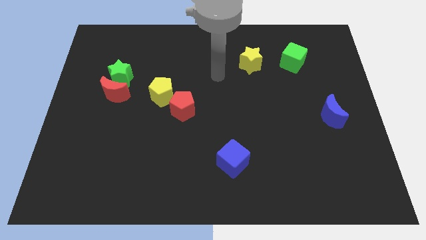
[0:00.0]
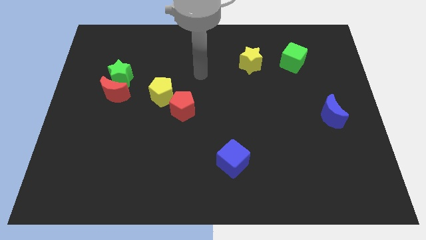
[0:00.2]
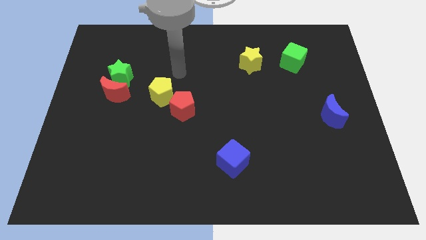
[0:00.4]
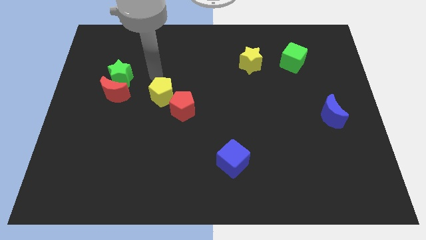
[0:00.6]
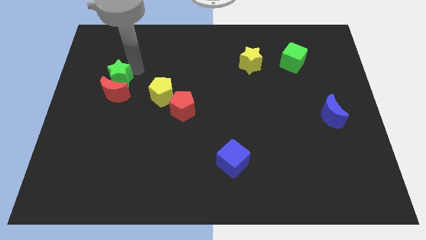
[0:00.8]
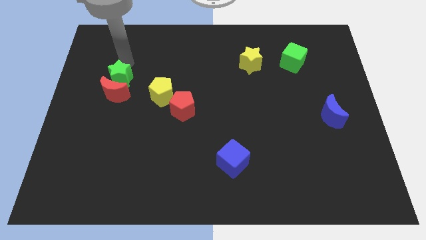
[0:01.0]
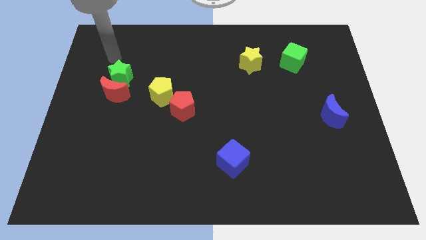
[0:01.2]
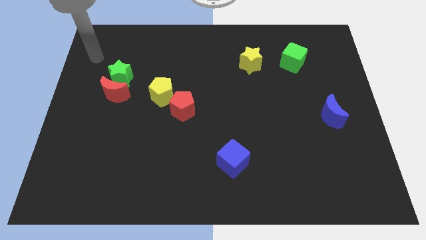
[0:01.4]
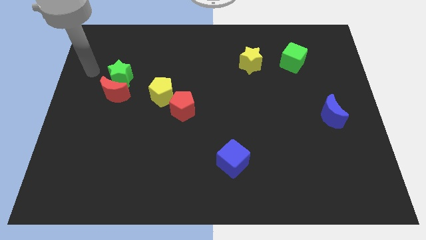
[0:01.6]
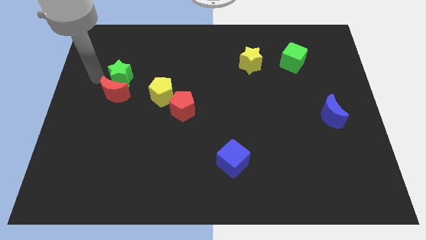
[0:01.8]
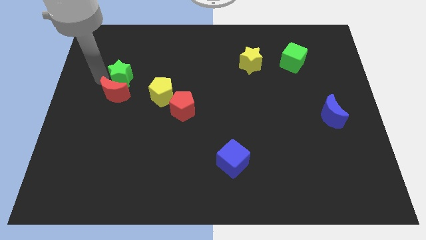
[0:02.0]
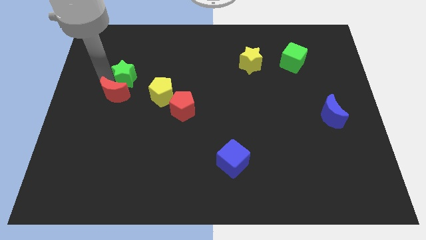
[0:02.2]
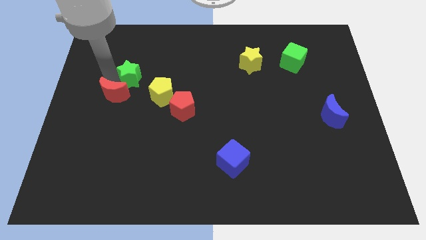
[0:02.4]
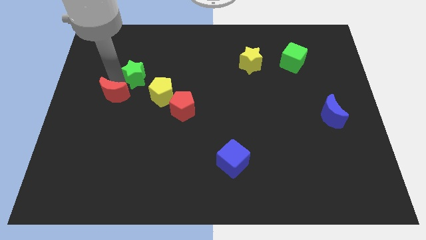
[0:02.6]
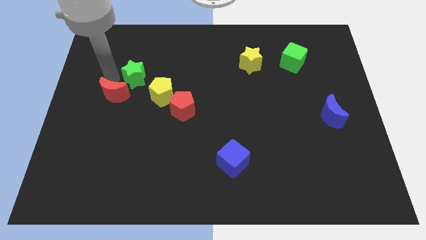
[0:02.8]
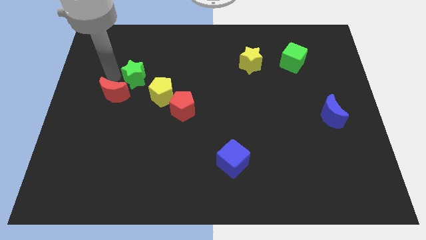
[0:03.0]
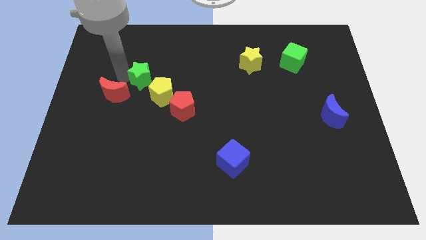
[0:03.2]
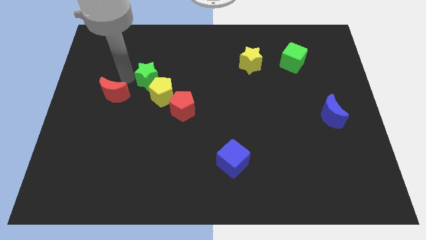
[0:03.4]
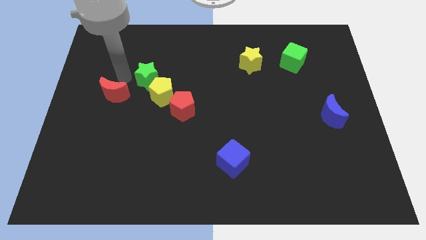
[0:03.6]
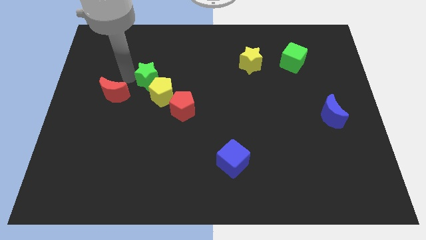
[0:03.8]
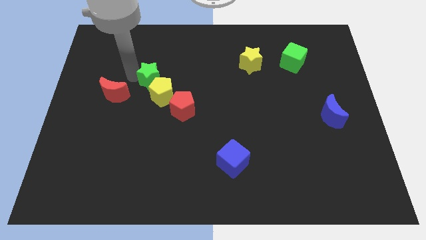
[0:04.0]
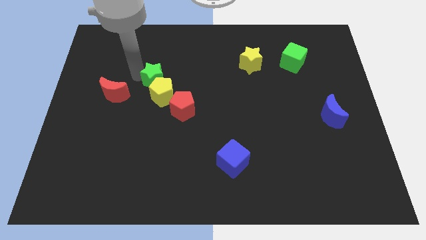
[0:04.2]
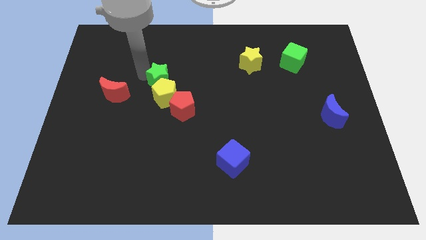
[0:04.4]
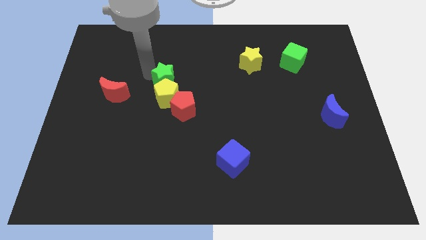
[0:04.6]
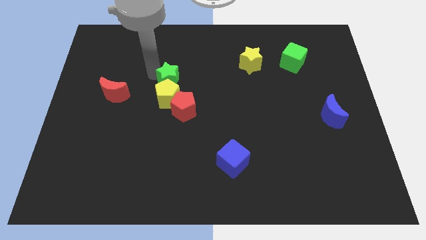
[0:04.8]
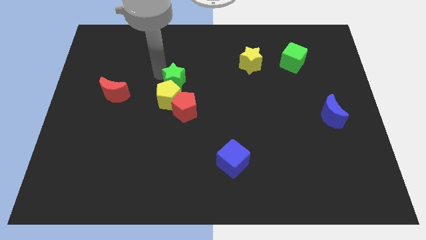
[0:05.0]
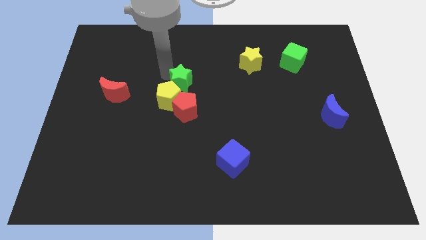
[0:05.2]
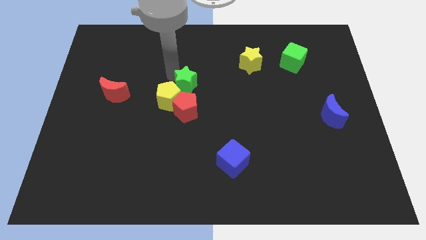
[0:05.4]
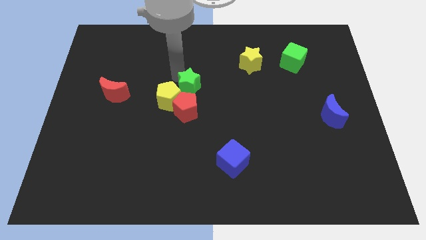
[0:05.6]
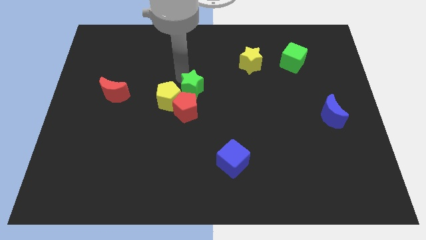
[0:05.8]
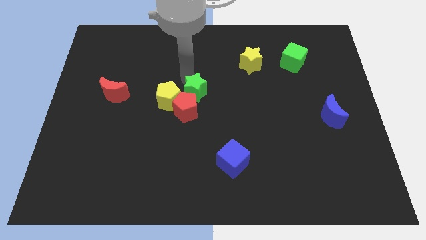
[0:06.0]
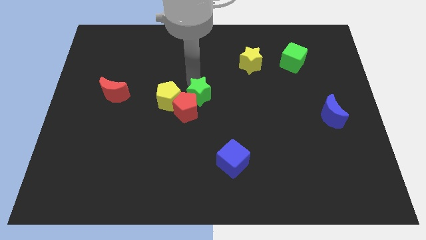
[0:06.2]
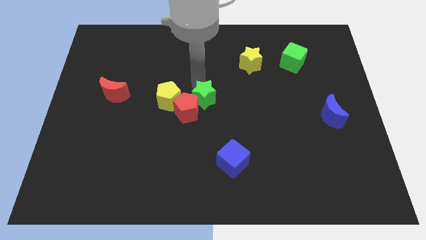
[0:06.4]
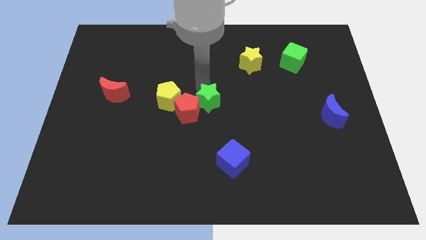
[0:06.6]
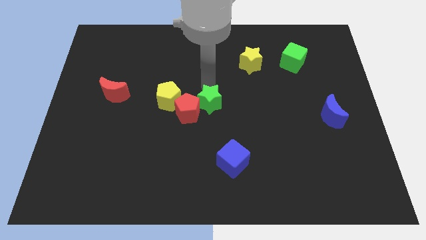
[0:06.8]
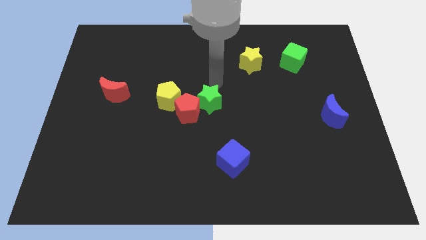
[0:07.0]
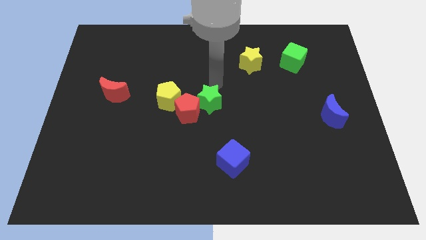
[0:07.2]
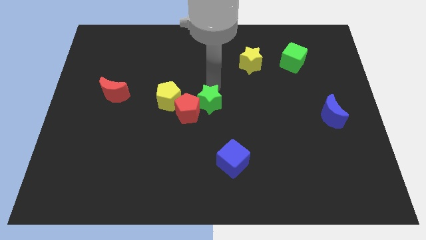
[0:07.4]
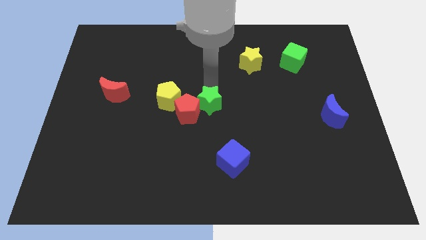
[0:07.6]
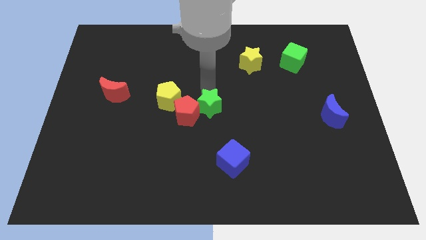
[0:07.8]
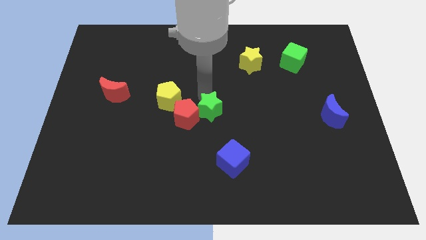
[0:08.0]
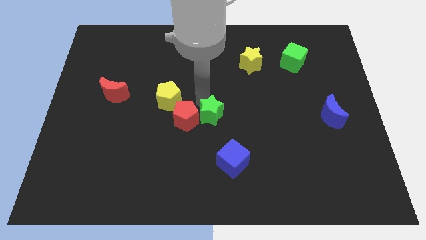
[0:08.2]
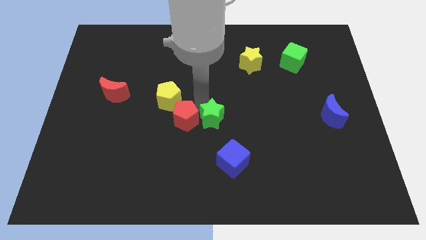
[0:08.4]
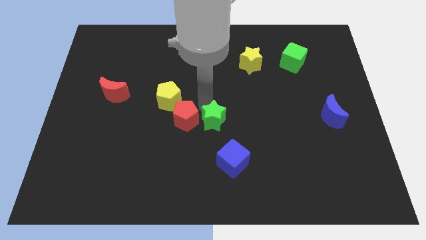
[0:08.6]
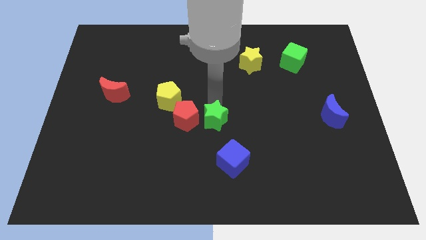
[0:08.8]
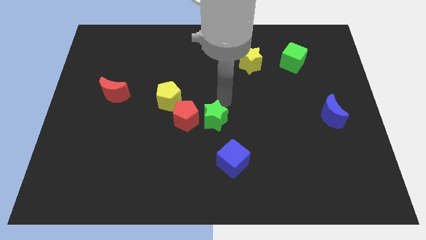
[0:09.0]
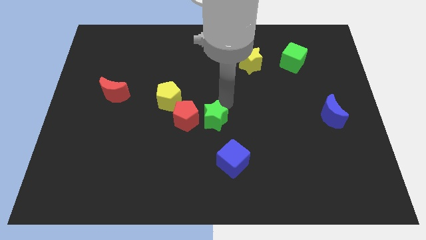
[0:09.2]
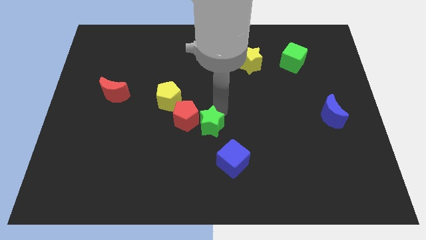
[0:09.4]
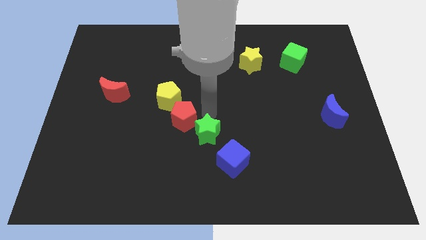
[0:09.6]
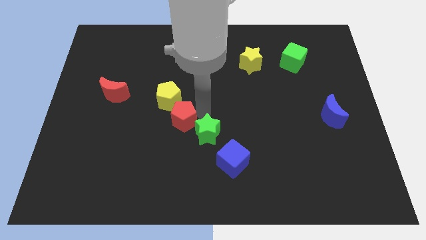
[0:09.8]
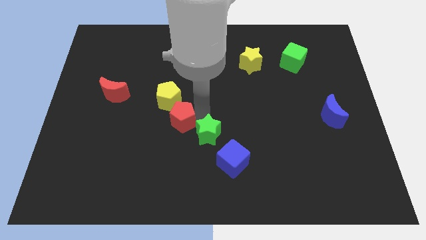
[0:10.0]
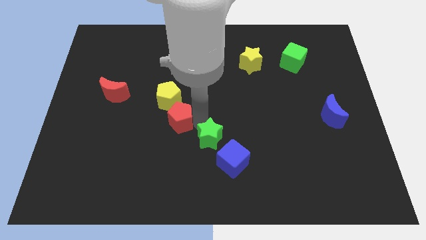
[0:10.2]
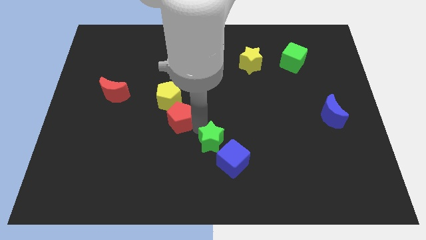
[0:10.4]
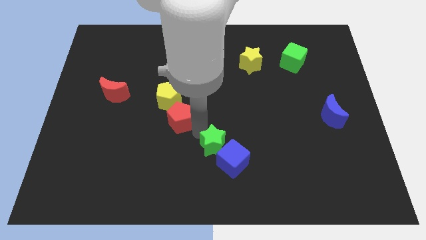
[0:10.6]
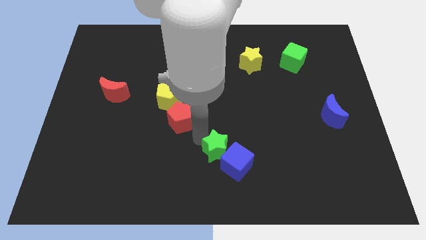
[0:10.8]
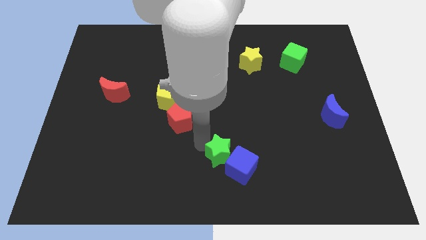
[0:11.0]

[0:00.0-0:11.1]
put the green star to the bottom side

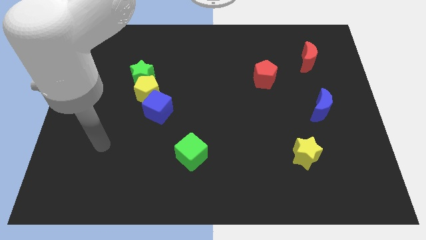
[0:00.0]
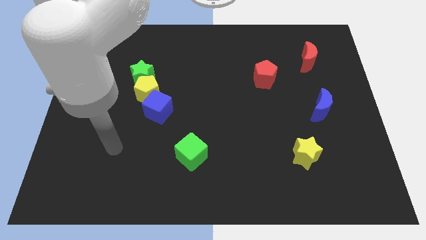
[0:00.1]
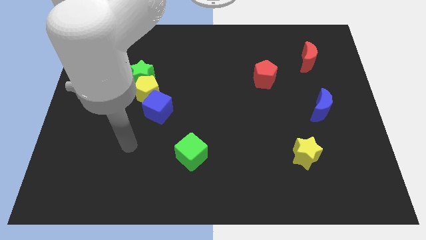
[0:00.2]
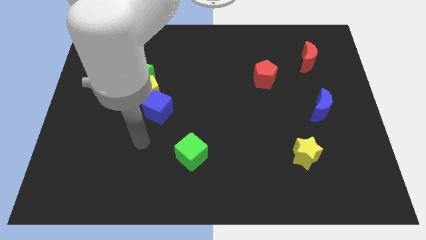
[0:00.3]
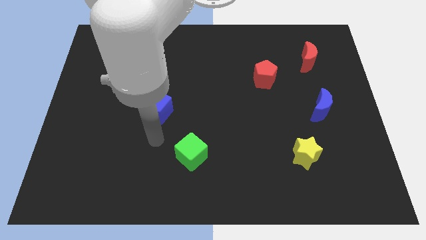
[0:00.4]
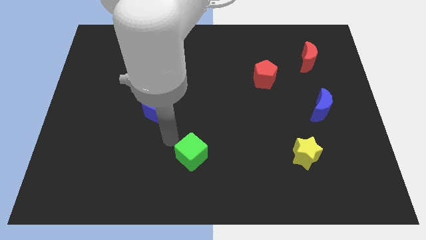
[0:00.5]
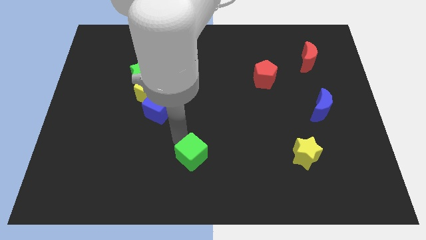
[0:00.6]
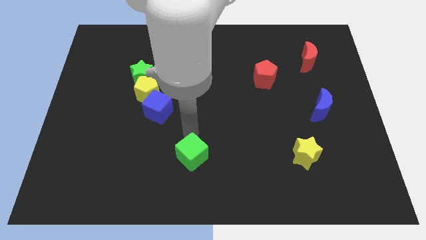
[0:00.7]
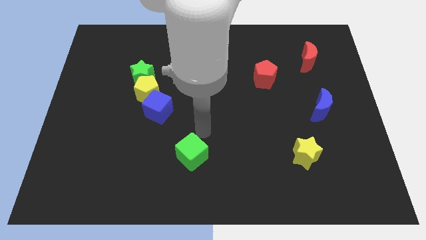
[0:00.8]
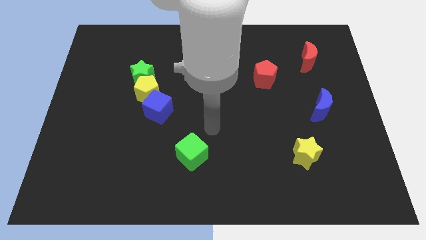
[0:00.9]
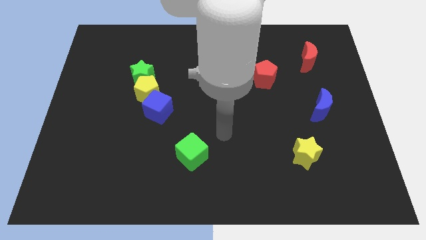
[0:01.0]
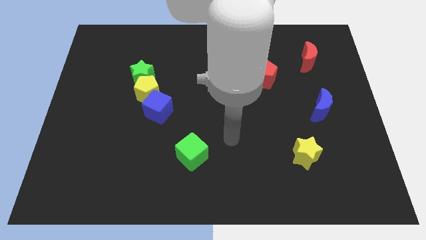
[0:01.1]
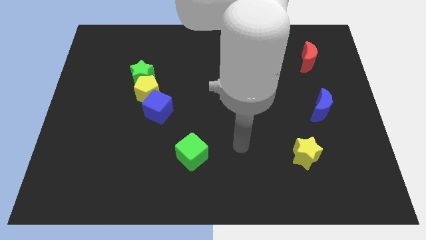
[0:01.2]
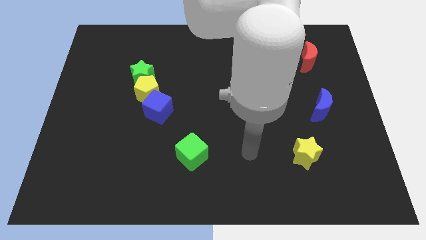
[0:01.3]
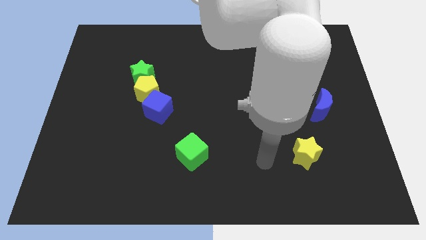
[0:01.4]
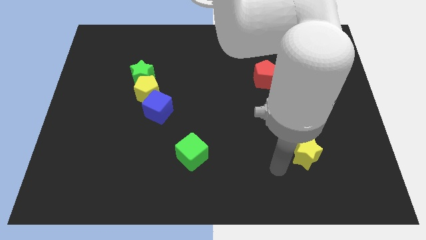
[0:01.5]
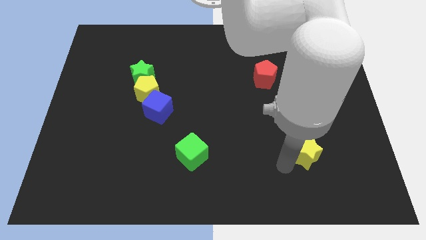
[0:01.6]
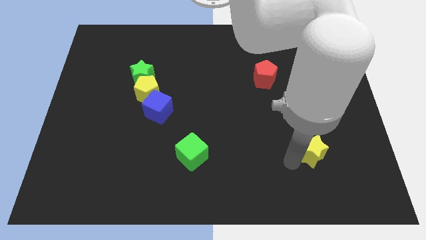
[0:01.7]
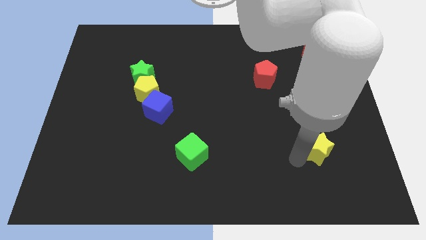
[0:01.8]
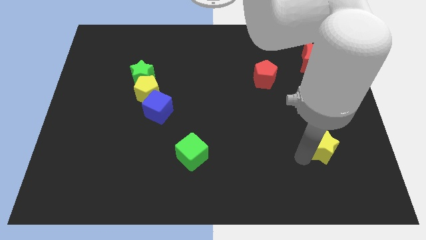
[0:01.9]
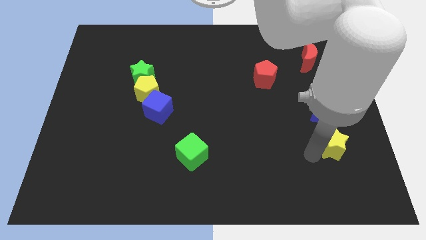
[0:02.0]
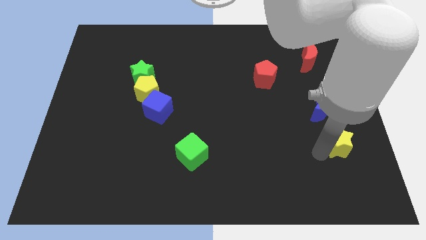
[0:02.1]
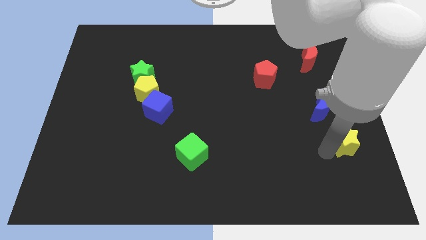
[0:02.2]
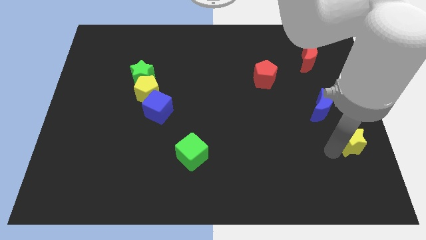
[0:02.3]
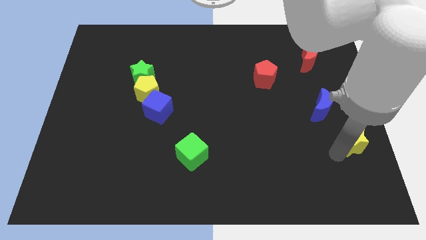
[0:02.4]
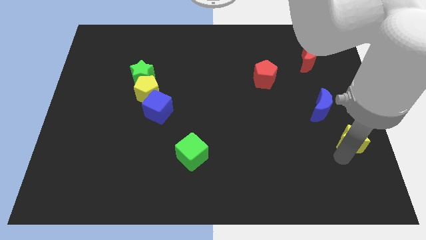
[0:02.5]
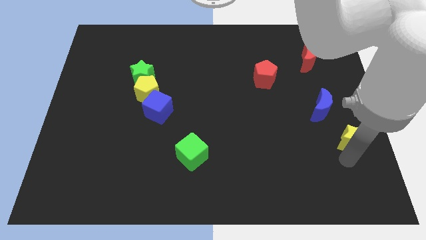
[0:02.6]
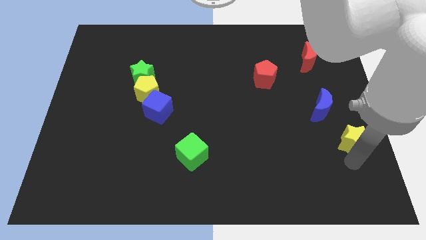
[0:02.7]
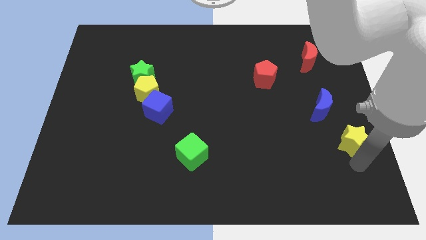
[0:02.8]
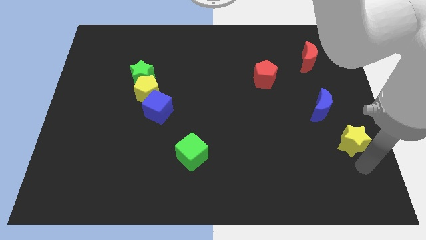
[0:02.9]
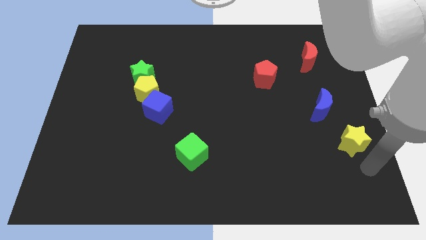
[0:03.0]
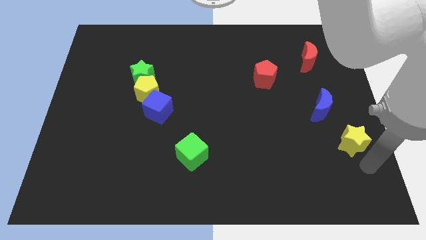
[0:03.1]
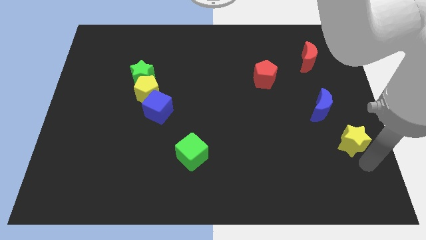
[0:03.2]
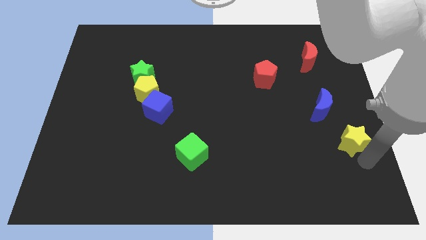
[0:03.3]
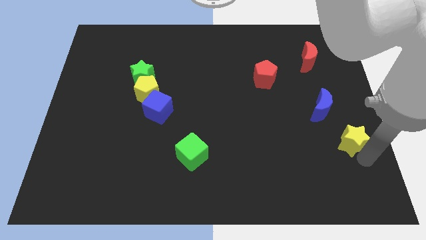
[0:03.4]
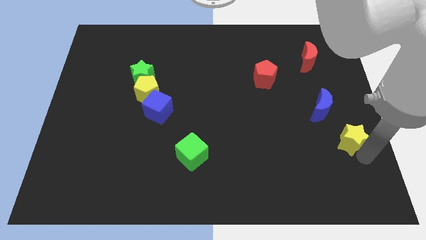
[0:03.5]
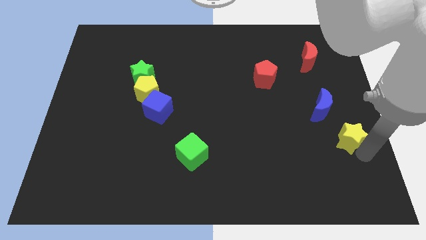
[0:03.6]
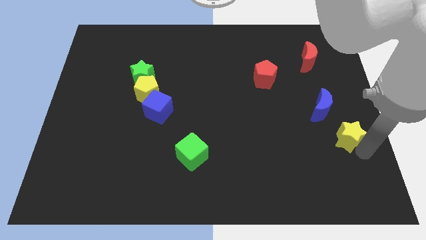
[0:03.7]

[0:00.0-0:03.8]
put the yellow star to the right side of the board
